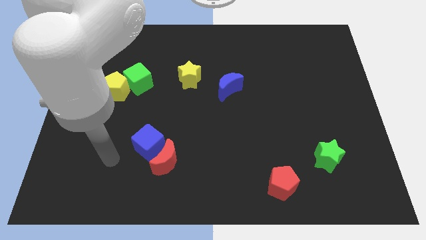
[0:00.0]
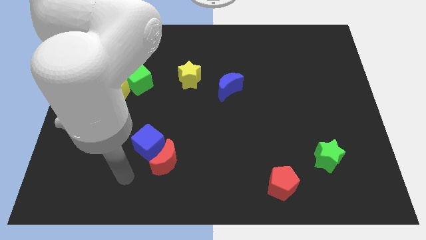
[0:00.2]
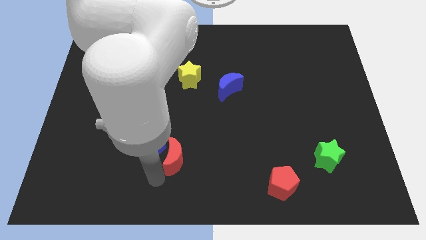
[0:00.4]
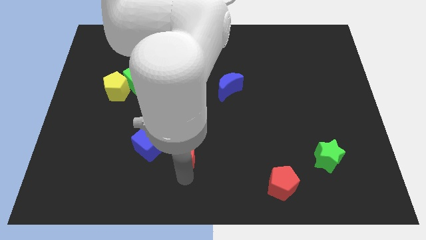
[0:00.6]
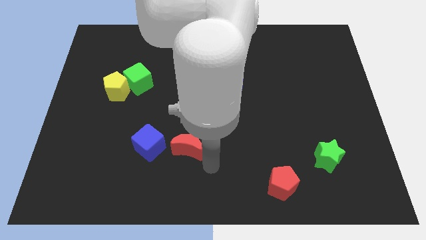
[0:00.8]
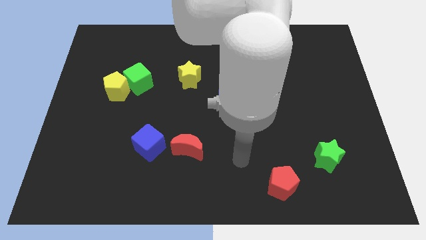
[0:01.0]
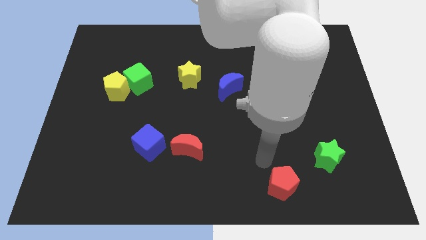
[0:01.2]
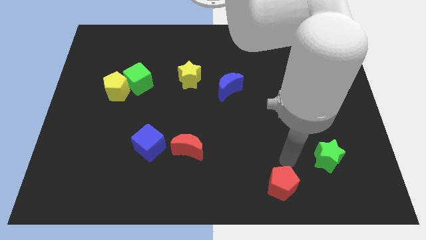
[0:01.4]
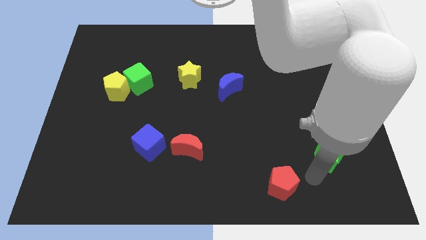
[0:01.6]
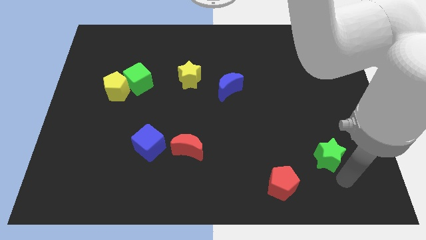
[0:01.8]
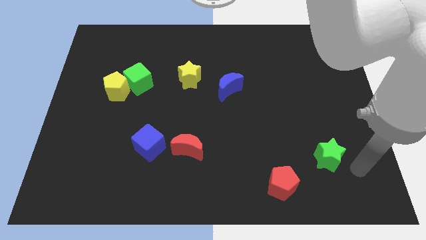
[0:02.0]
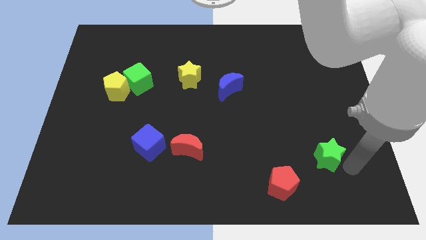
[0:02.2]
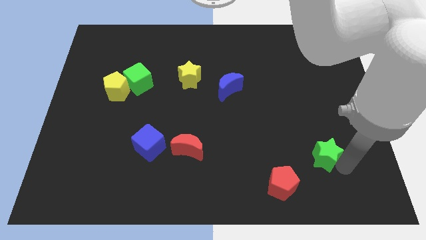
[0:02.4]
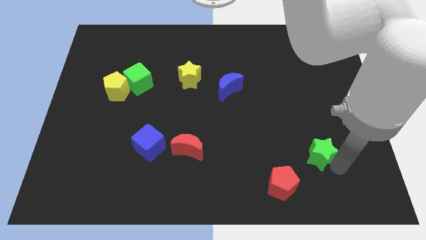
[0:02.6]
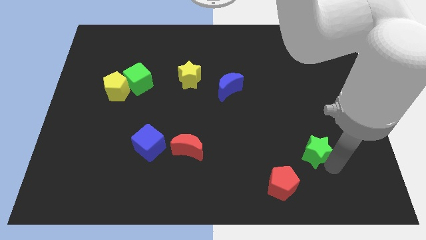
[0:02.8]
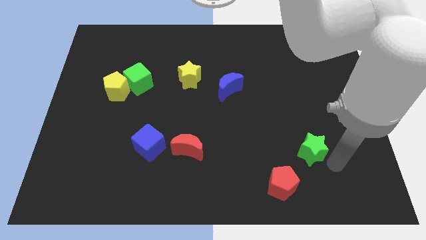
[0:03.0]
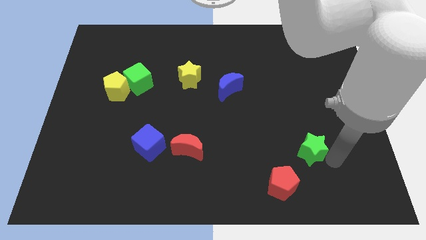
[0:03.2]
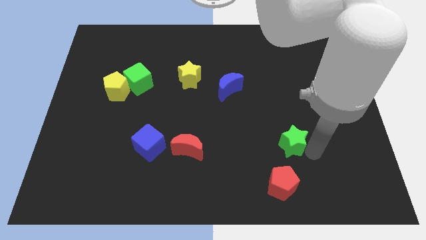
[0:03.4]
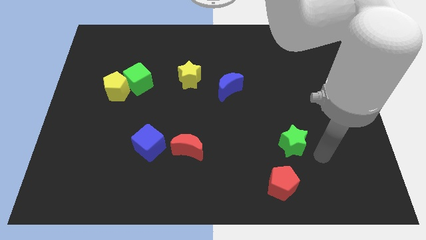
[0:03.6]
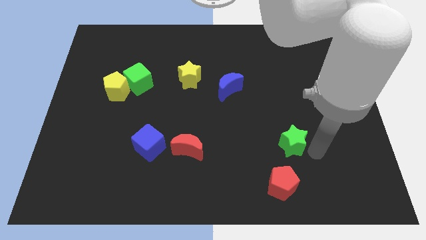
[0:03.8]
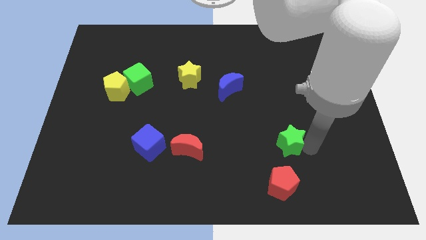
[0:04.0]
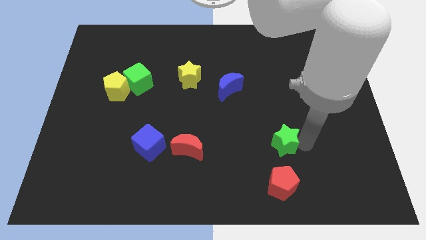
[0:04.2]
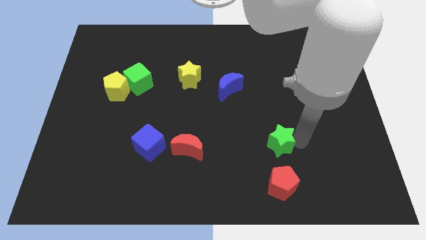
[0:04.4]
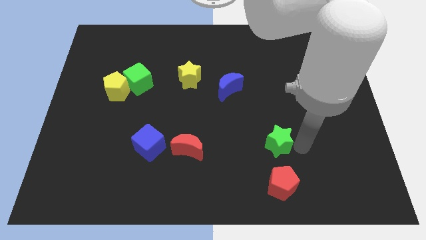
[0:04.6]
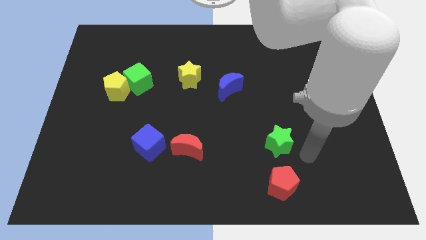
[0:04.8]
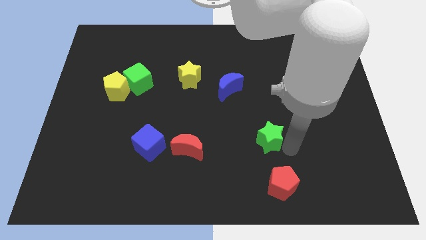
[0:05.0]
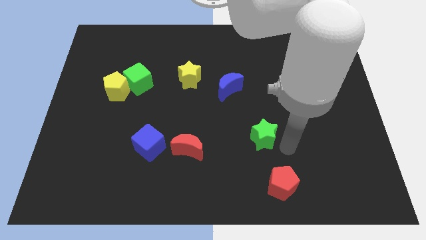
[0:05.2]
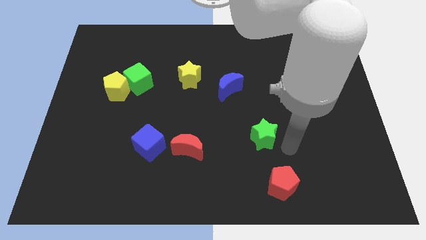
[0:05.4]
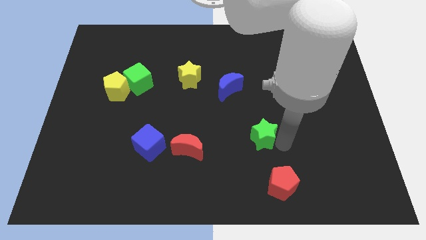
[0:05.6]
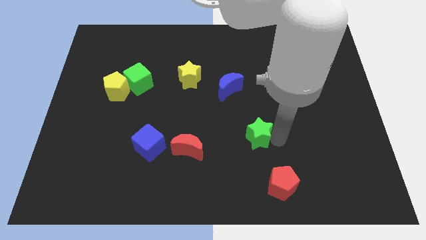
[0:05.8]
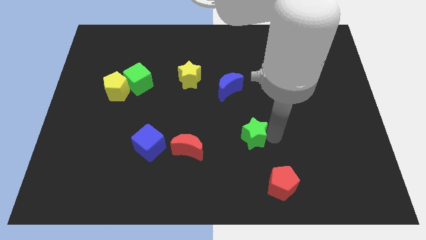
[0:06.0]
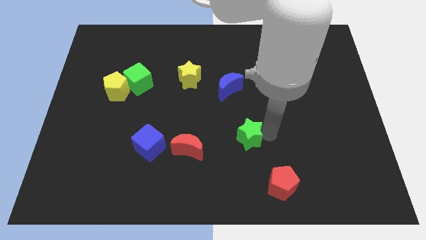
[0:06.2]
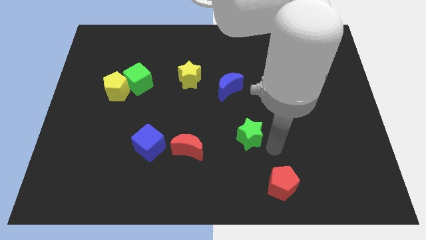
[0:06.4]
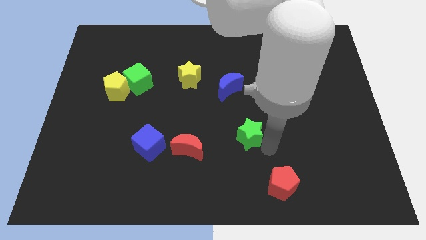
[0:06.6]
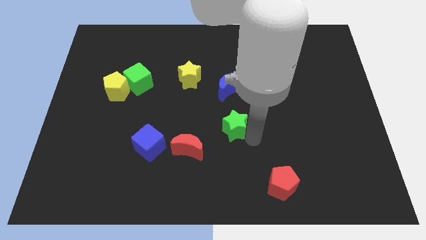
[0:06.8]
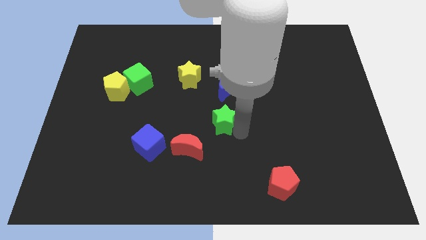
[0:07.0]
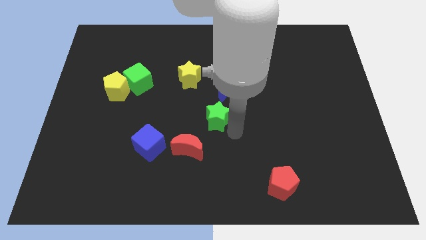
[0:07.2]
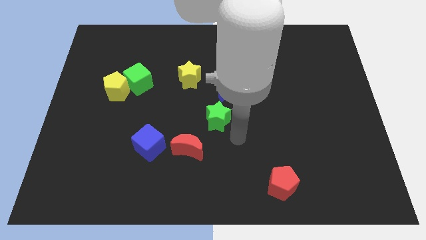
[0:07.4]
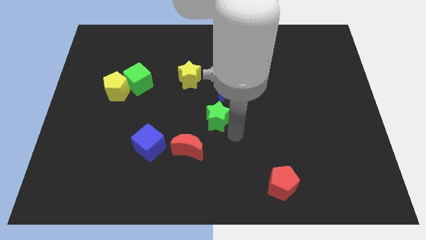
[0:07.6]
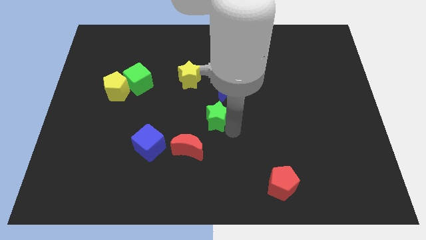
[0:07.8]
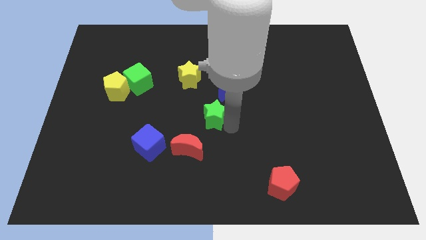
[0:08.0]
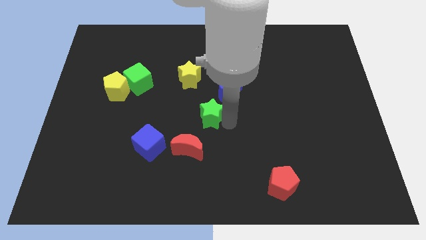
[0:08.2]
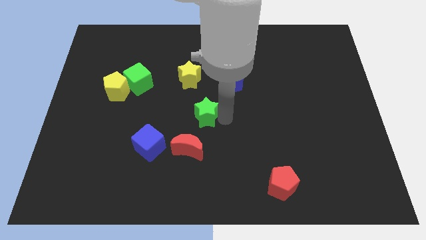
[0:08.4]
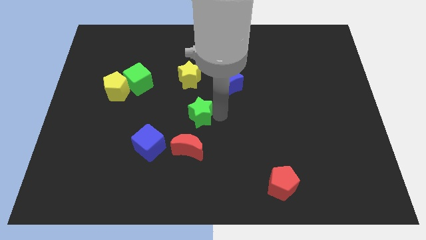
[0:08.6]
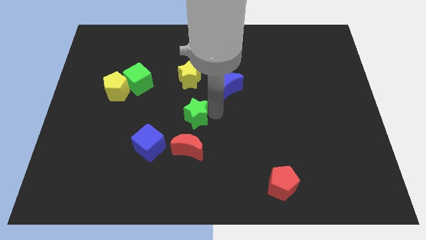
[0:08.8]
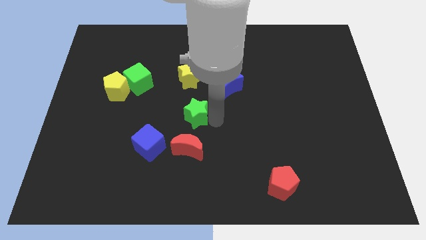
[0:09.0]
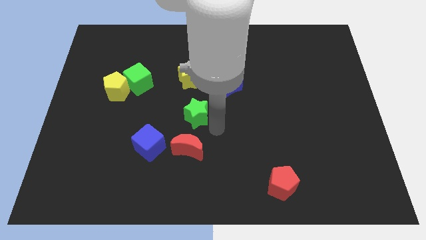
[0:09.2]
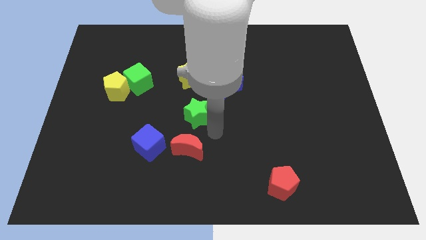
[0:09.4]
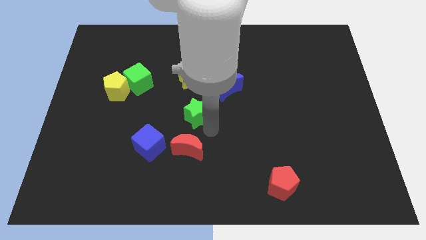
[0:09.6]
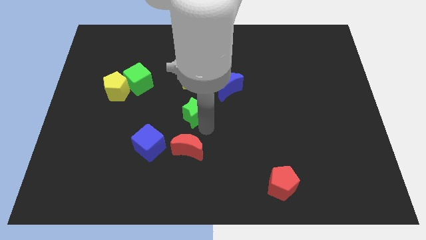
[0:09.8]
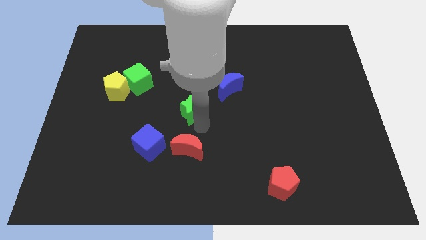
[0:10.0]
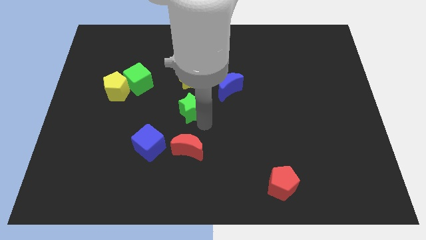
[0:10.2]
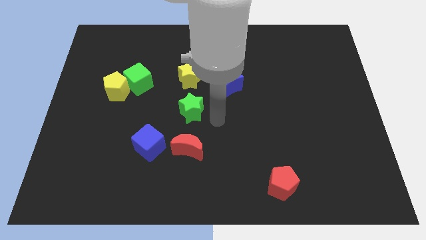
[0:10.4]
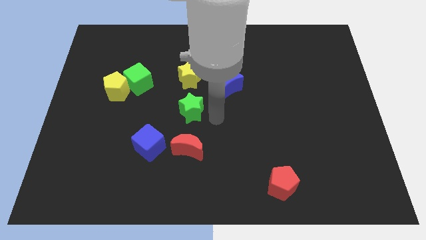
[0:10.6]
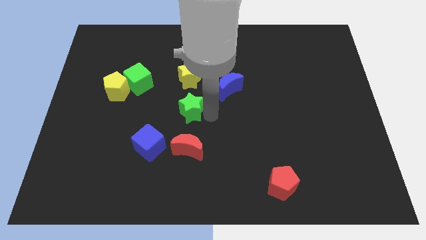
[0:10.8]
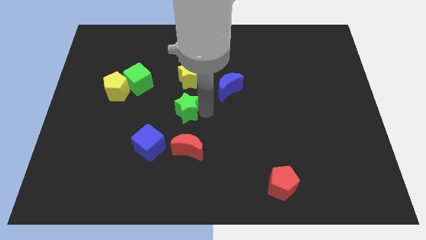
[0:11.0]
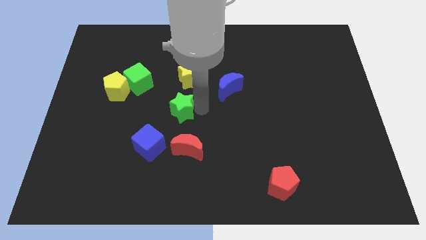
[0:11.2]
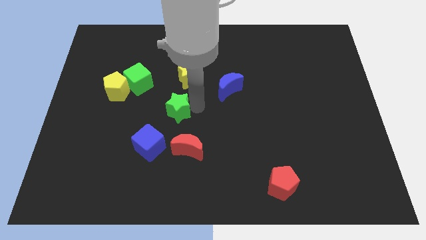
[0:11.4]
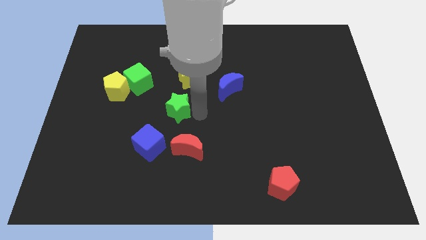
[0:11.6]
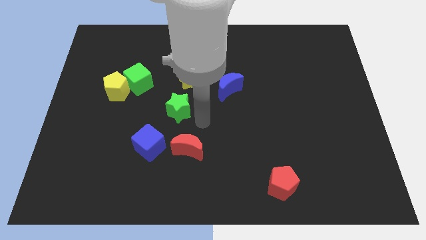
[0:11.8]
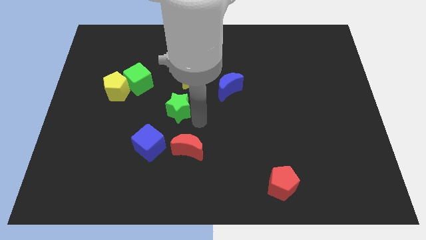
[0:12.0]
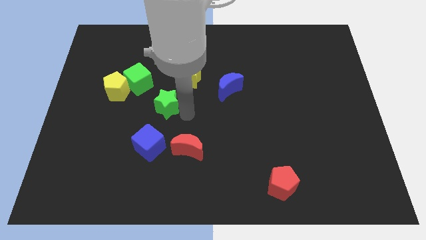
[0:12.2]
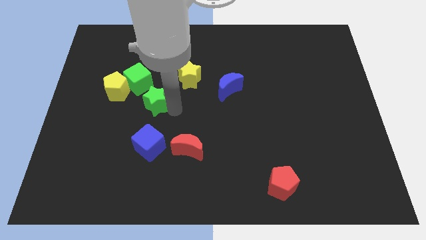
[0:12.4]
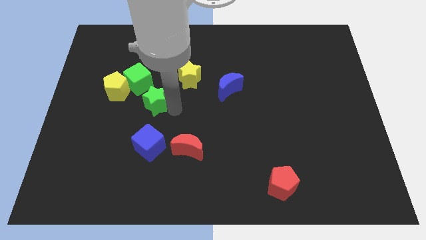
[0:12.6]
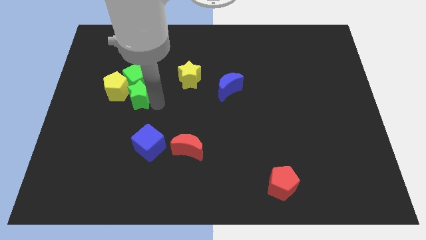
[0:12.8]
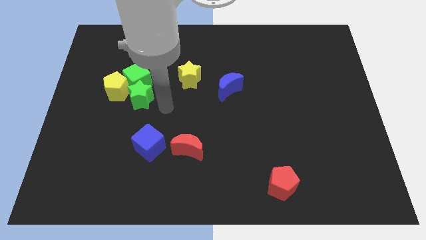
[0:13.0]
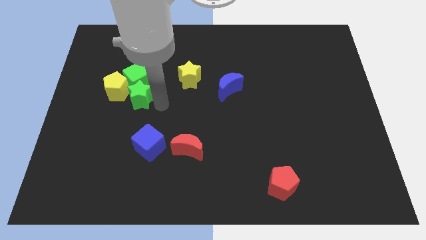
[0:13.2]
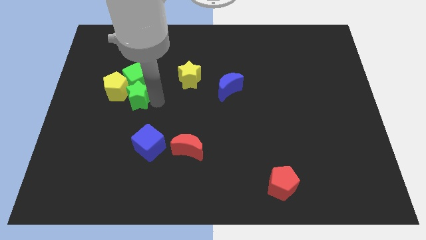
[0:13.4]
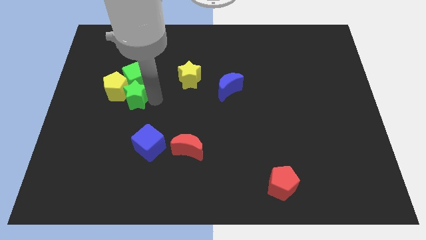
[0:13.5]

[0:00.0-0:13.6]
put the green star close to the yellow pentagon
